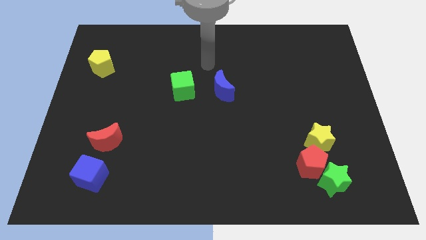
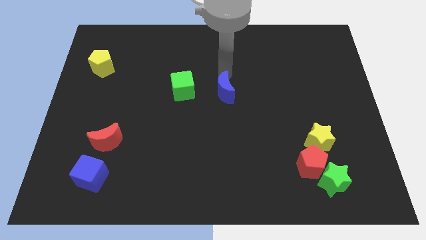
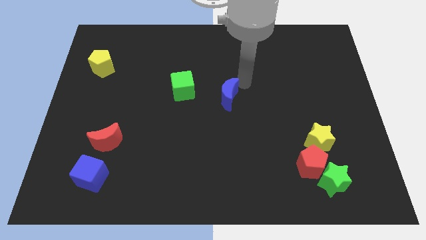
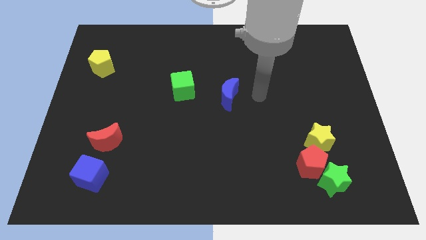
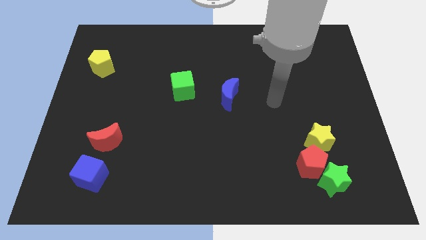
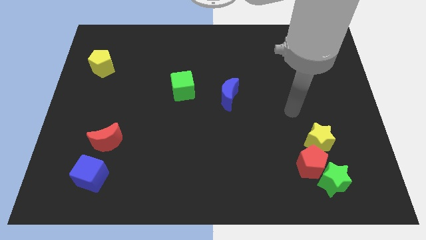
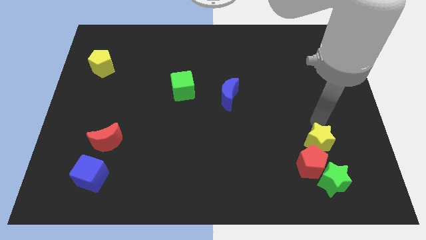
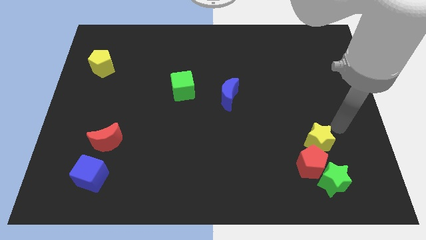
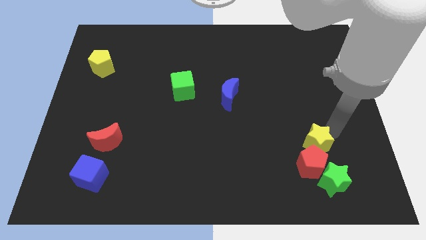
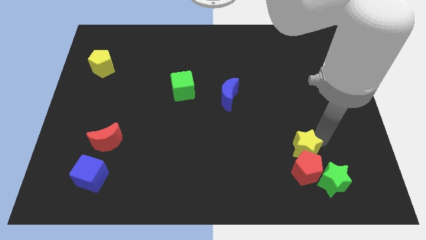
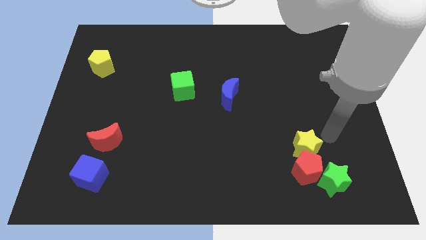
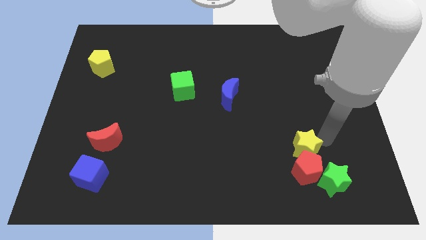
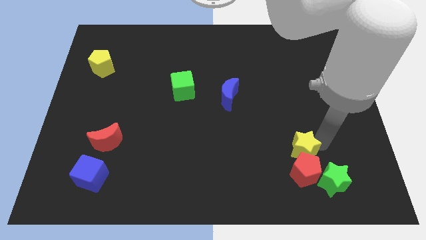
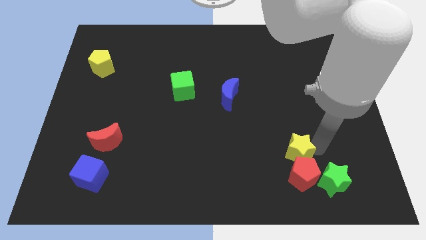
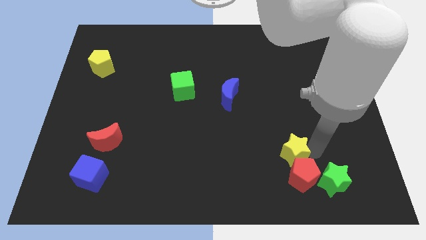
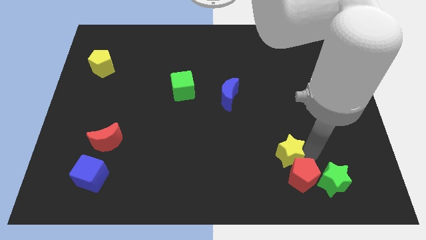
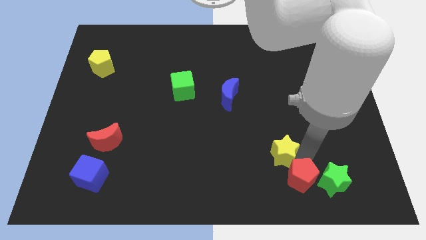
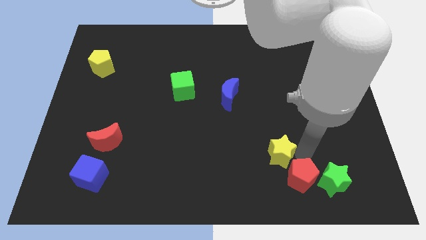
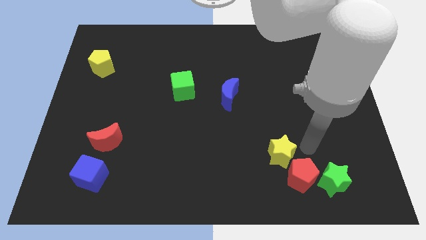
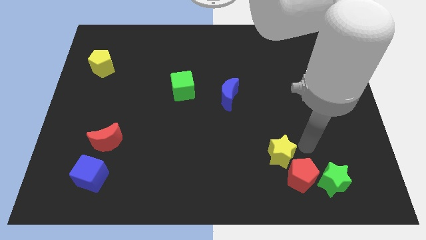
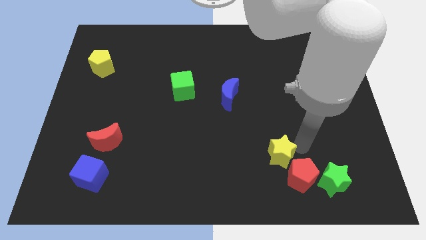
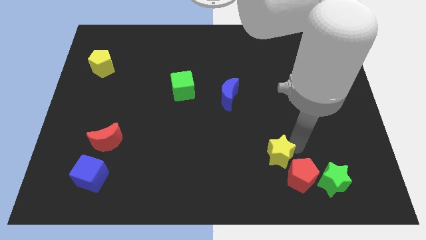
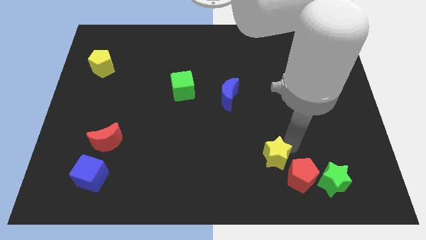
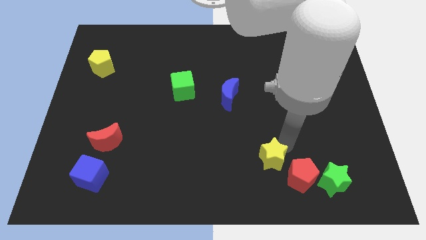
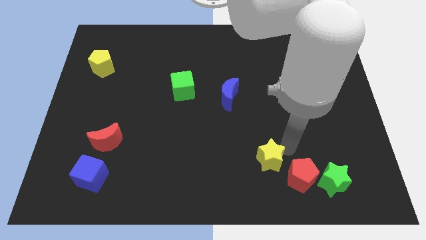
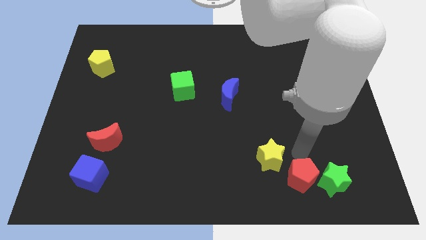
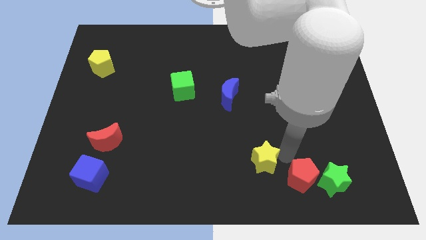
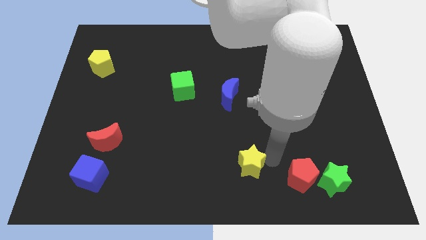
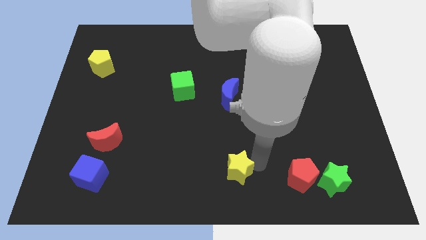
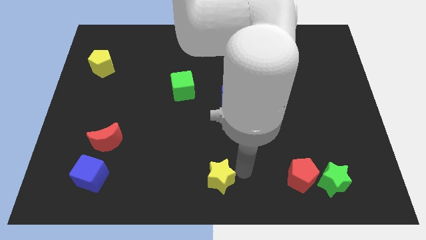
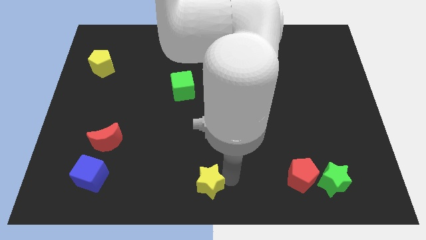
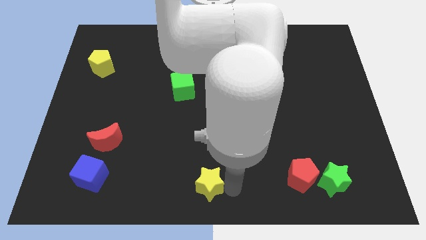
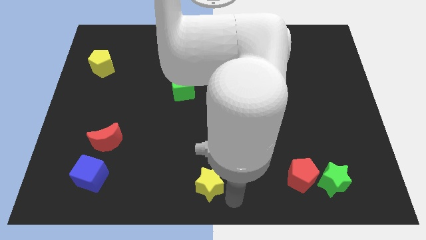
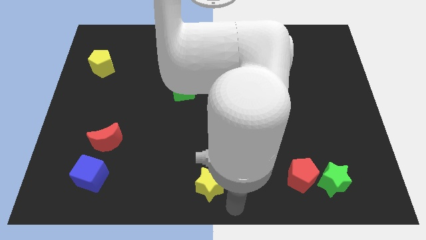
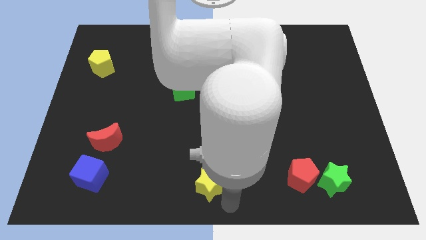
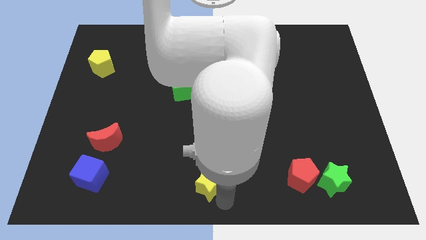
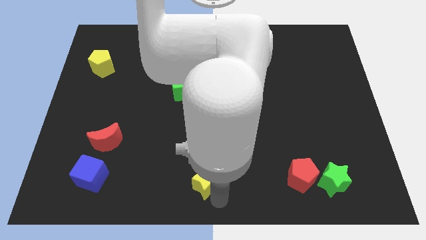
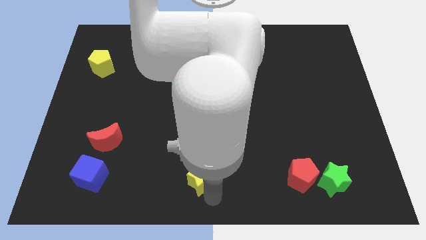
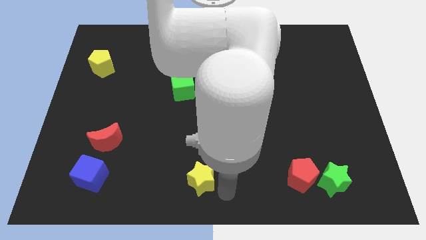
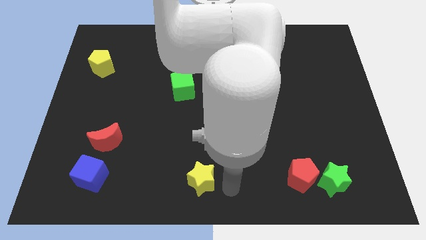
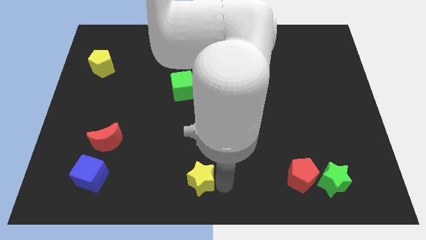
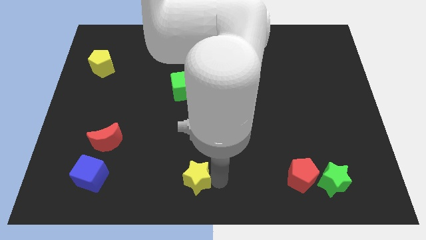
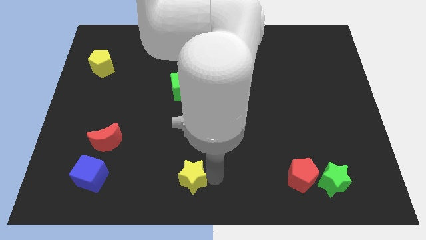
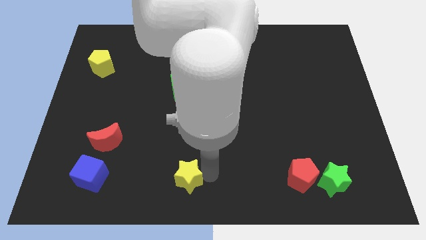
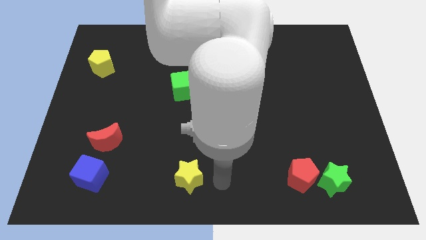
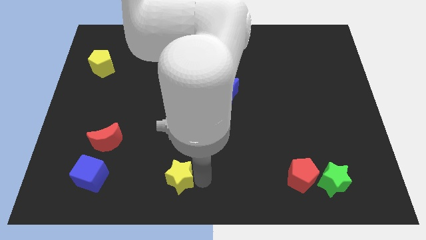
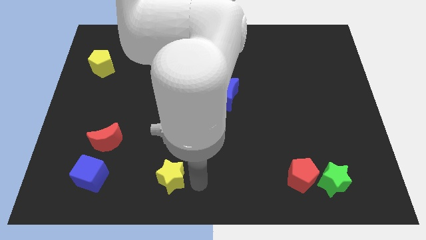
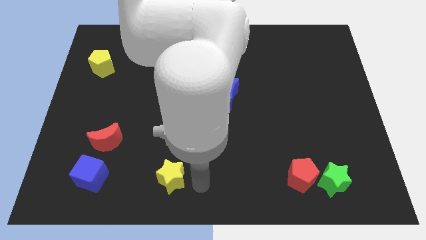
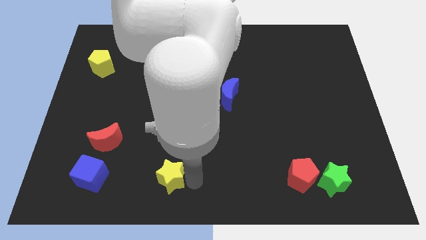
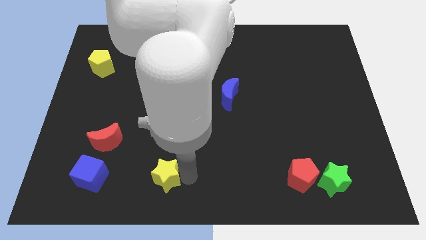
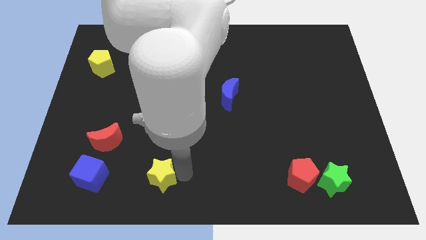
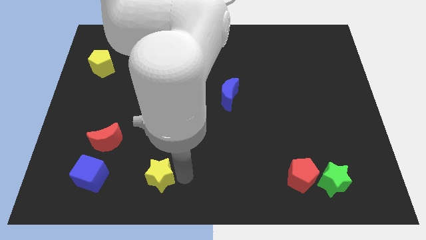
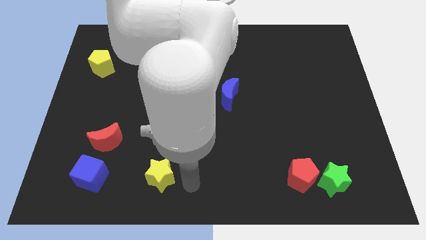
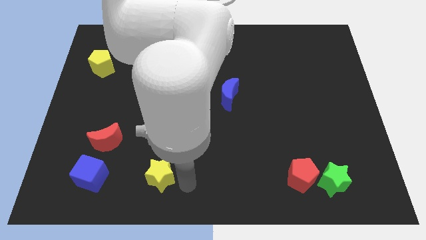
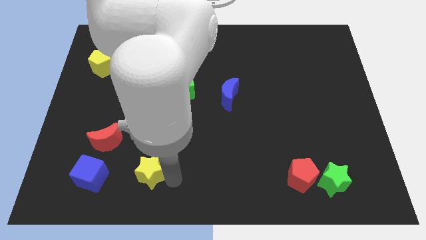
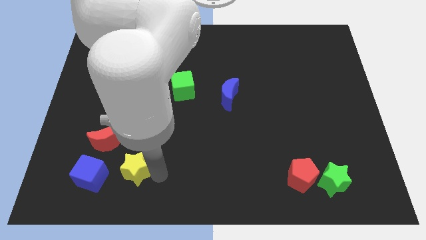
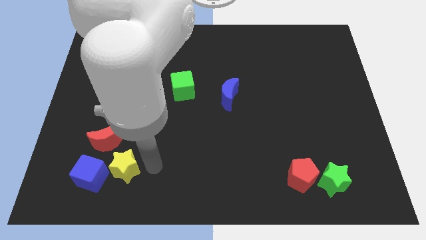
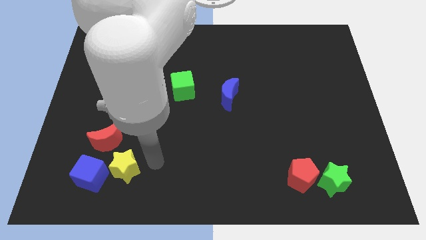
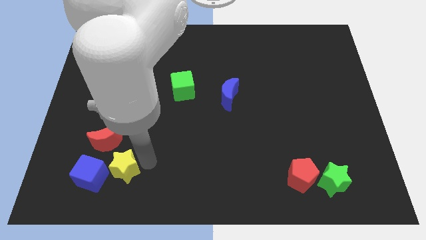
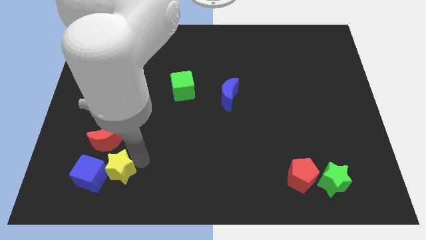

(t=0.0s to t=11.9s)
put the yellow star next to the blue cube

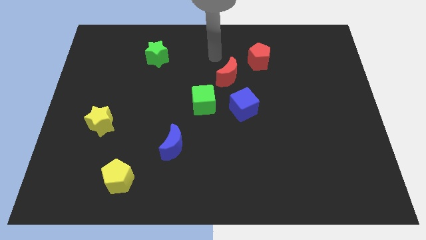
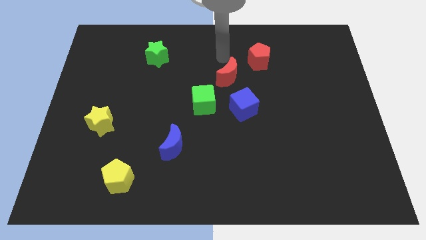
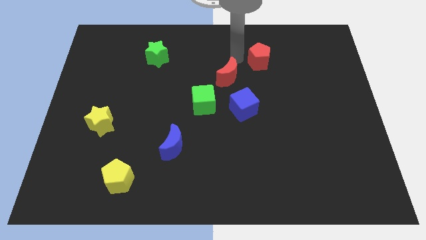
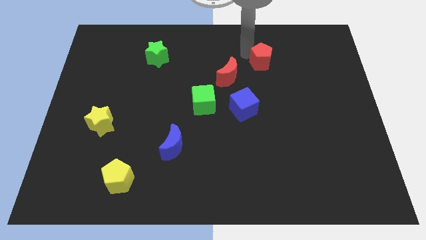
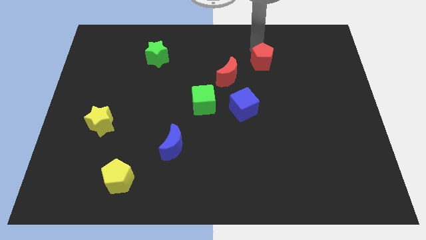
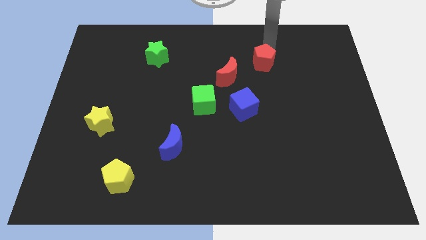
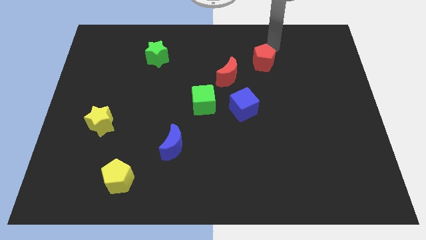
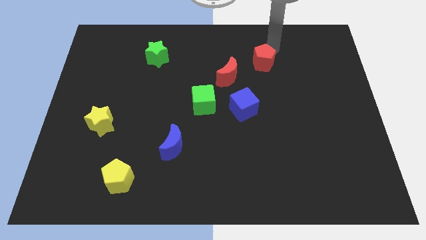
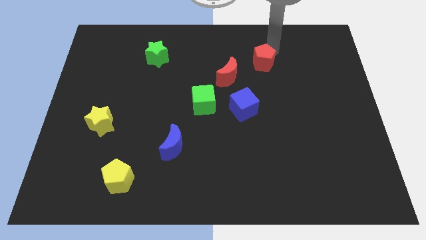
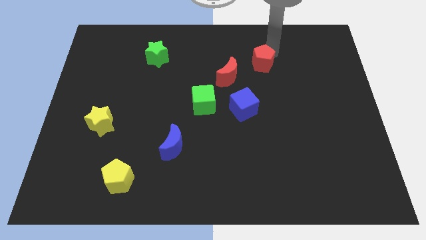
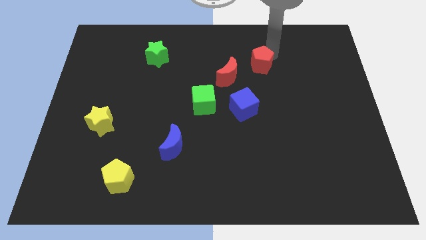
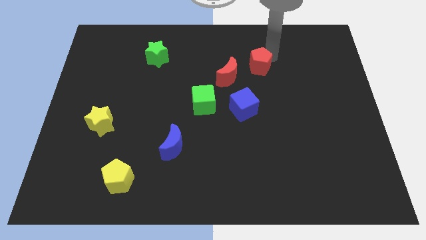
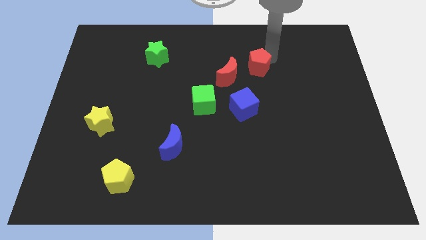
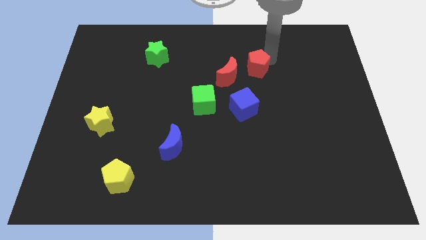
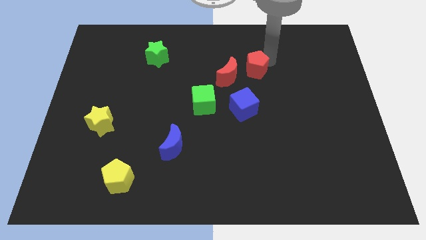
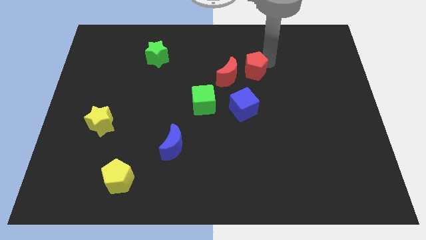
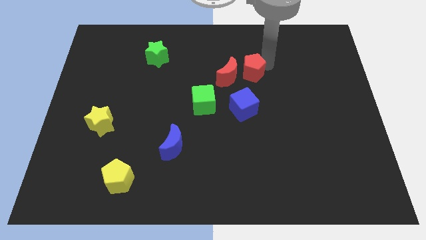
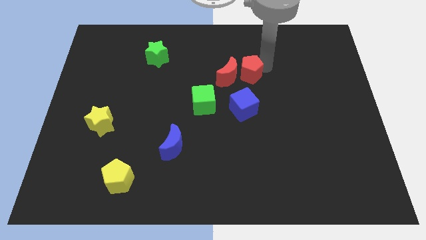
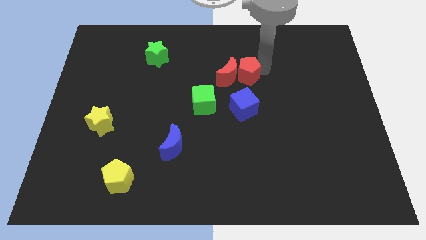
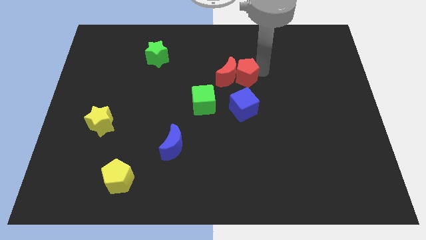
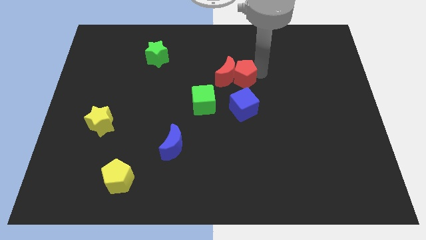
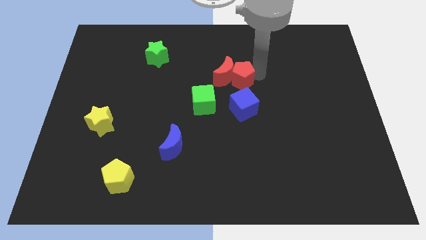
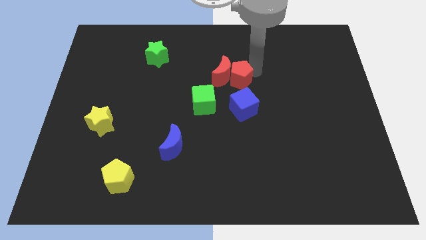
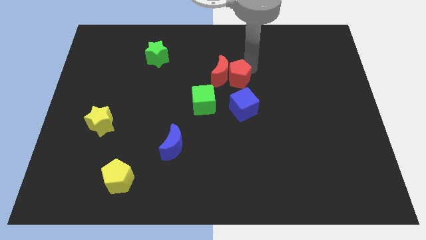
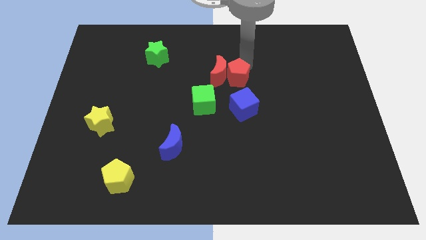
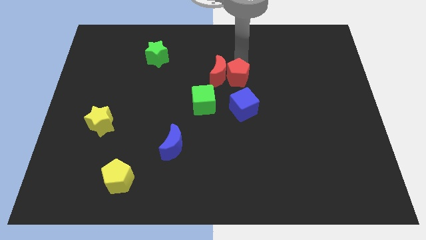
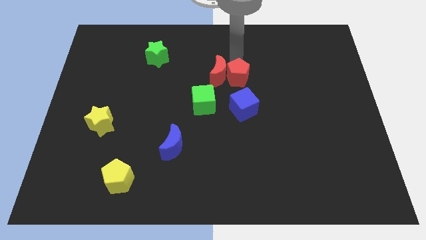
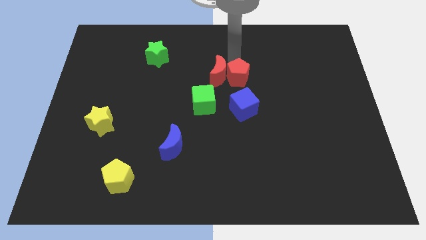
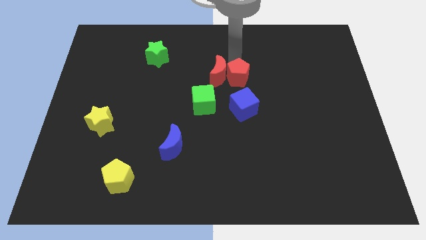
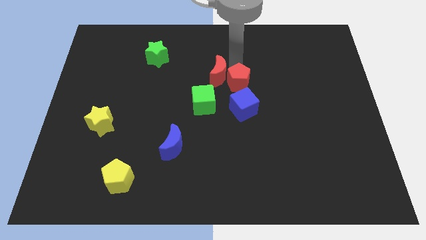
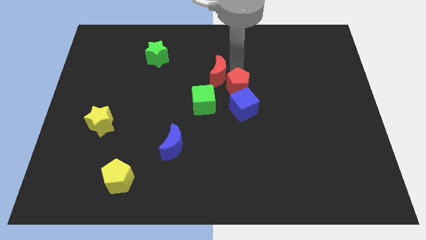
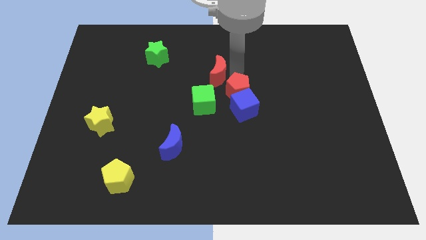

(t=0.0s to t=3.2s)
put the red pentagon to the blue cube
